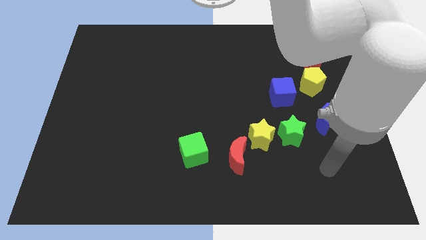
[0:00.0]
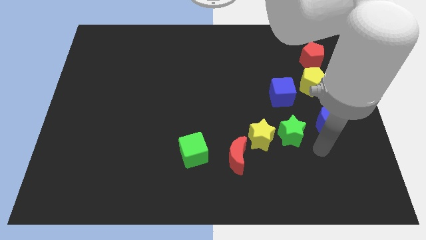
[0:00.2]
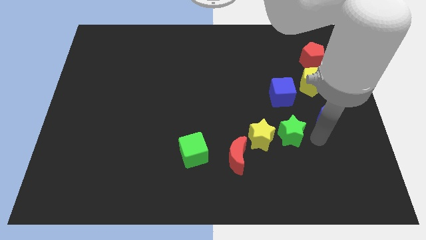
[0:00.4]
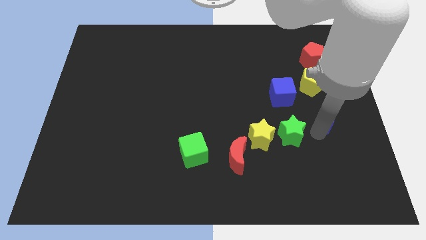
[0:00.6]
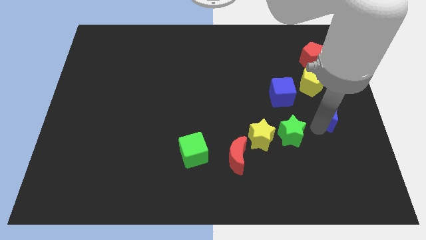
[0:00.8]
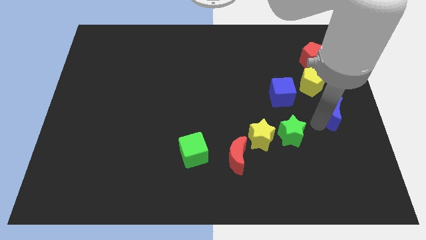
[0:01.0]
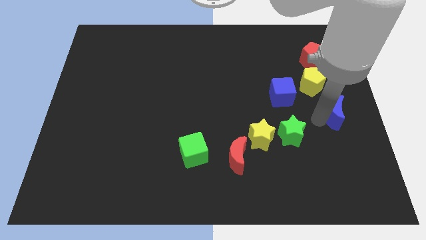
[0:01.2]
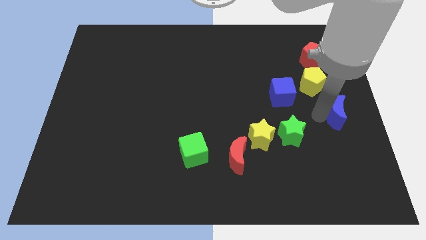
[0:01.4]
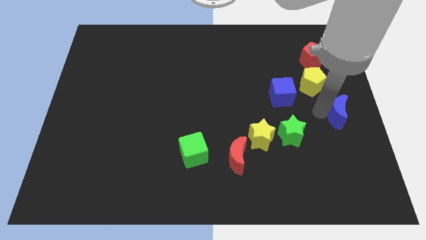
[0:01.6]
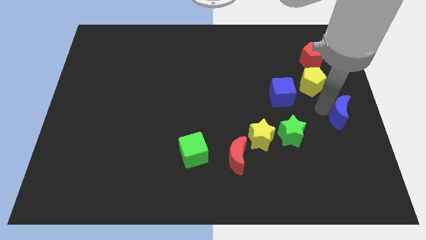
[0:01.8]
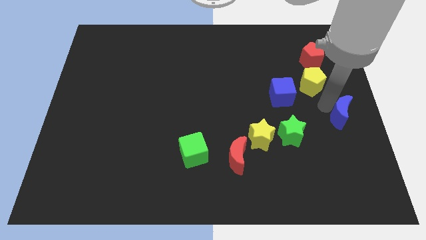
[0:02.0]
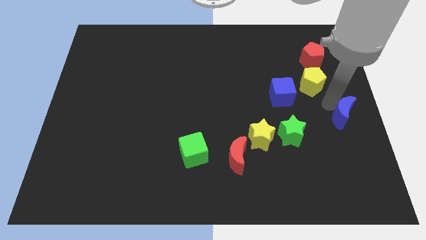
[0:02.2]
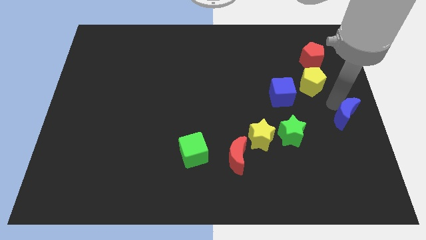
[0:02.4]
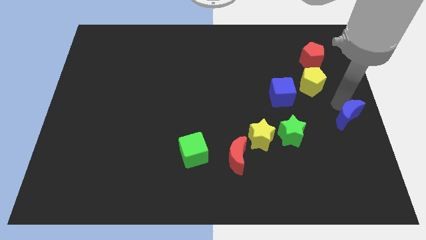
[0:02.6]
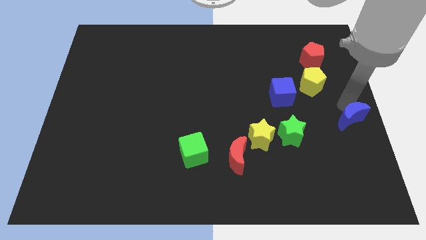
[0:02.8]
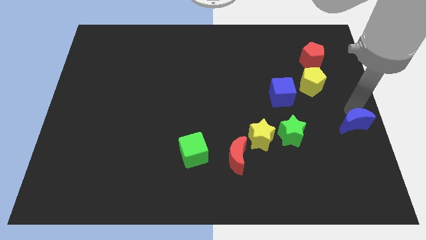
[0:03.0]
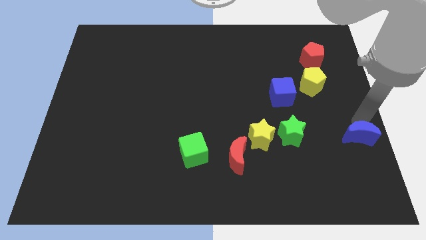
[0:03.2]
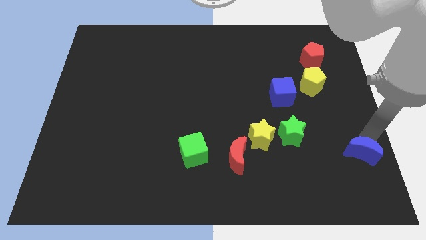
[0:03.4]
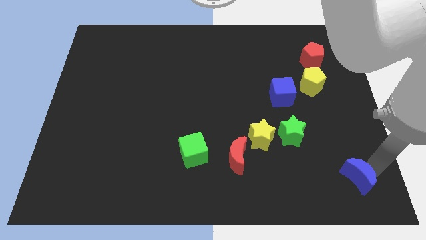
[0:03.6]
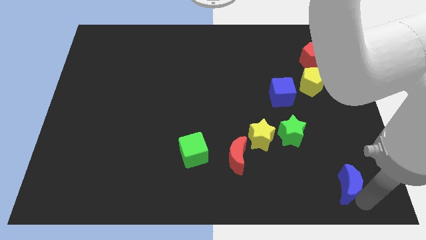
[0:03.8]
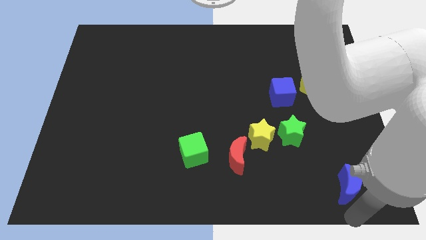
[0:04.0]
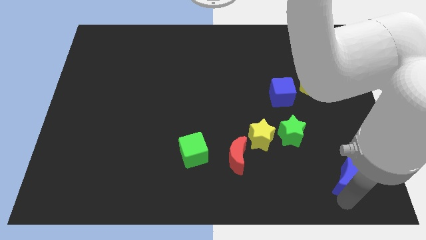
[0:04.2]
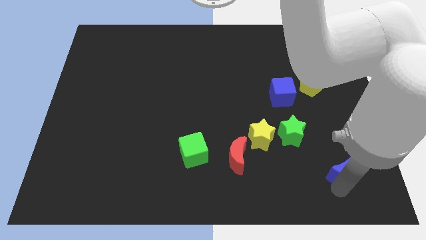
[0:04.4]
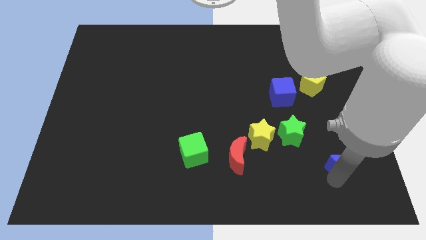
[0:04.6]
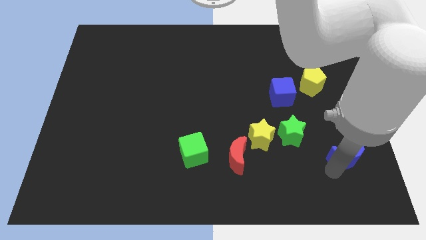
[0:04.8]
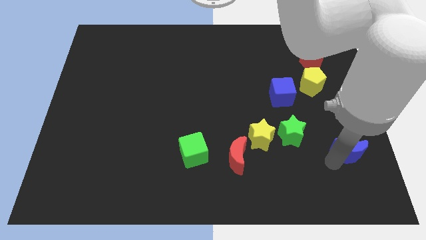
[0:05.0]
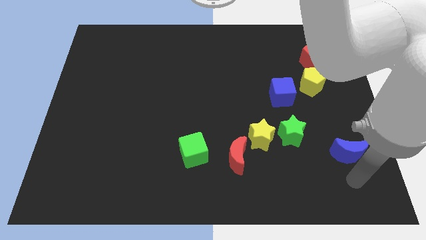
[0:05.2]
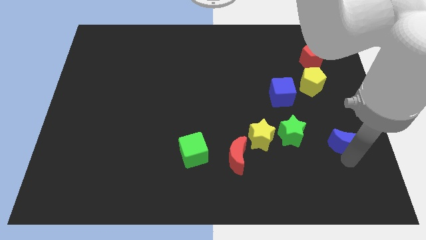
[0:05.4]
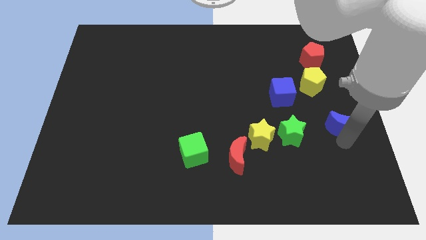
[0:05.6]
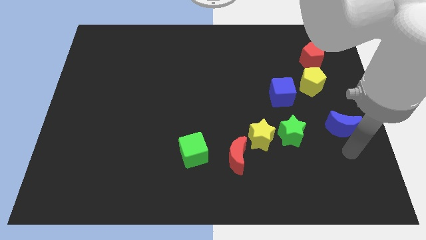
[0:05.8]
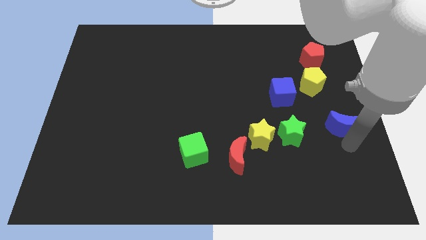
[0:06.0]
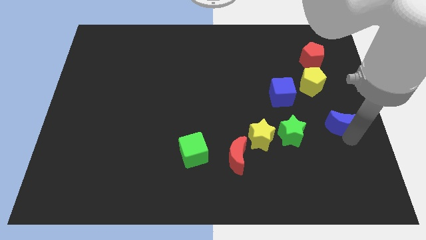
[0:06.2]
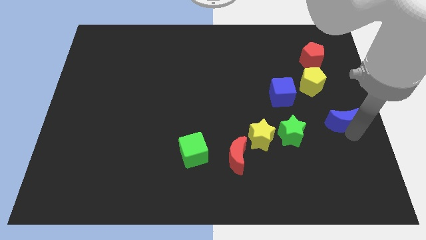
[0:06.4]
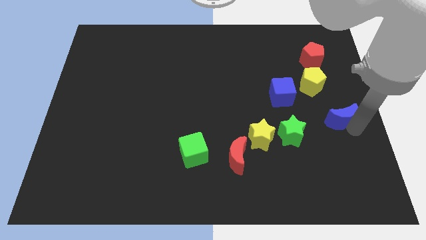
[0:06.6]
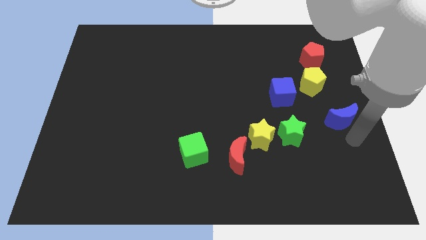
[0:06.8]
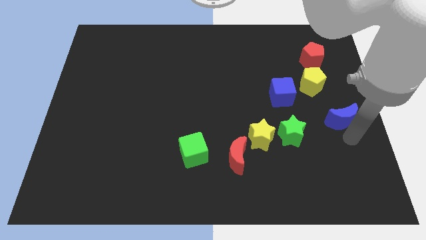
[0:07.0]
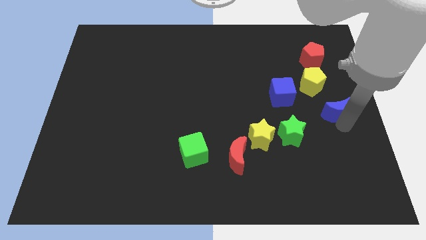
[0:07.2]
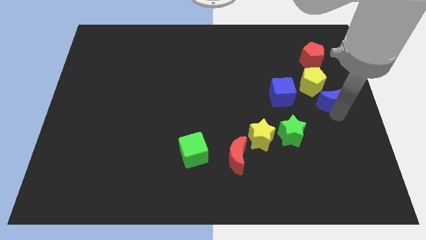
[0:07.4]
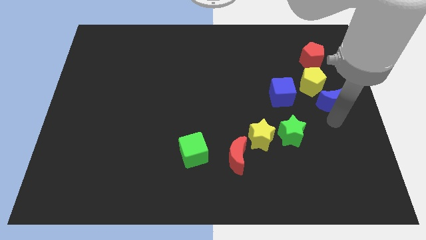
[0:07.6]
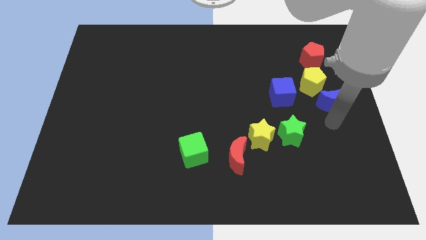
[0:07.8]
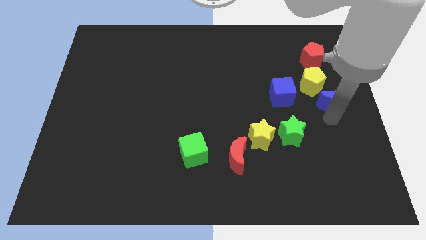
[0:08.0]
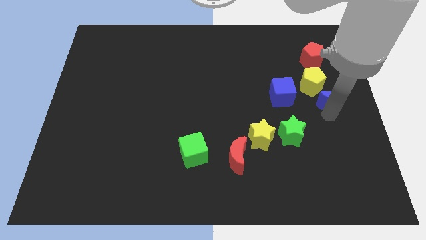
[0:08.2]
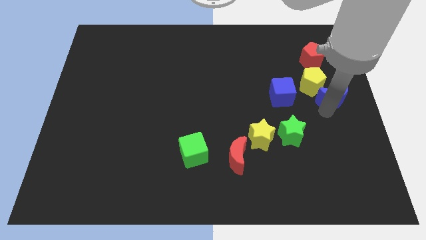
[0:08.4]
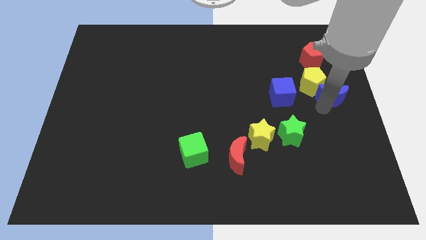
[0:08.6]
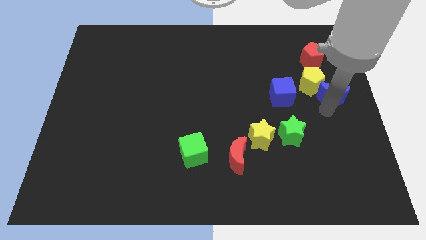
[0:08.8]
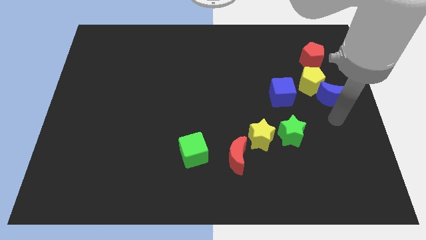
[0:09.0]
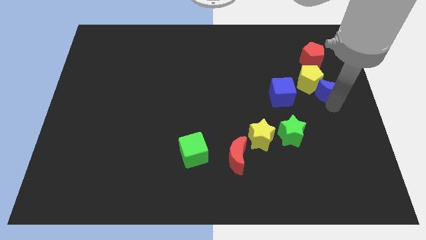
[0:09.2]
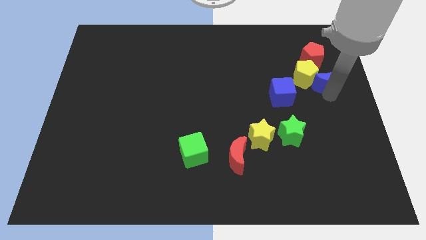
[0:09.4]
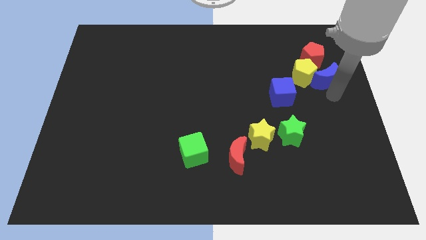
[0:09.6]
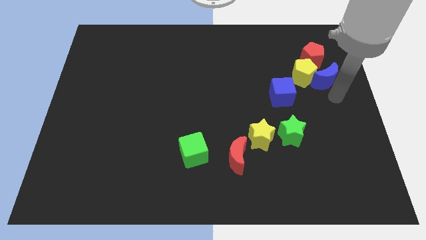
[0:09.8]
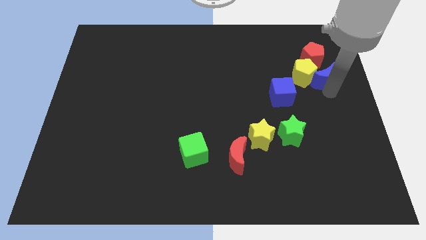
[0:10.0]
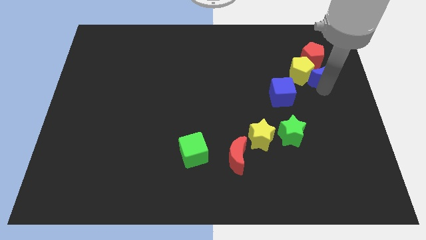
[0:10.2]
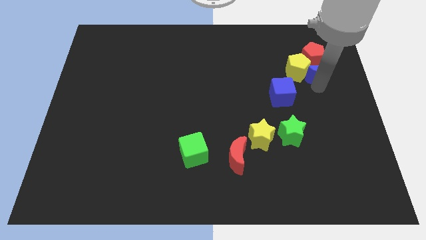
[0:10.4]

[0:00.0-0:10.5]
put the blue moon to the red pentagon

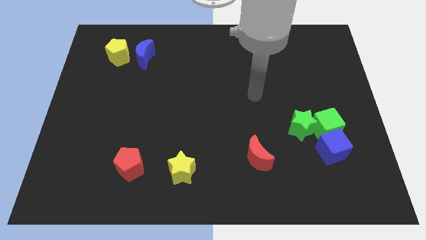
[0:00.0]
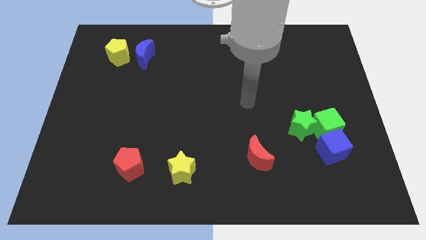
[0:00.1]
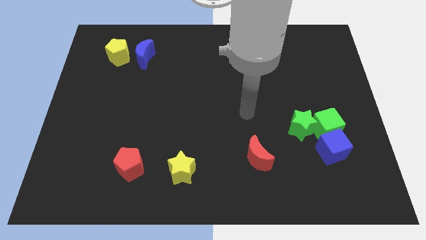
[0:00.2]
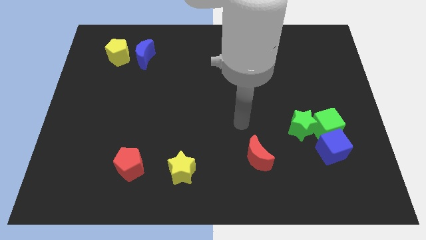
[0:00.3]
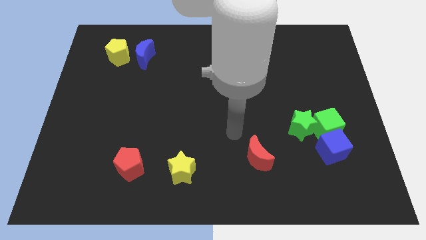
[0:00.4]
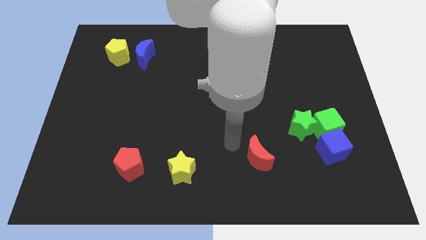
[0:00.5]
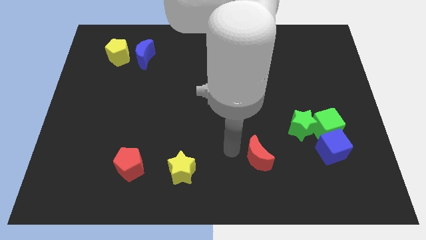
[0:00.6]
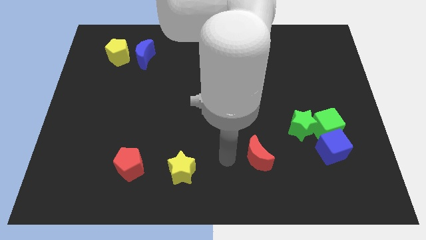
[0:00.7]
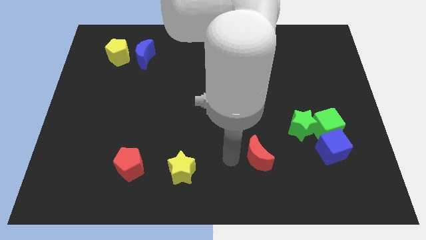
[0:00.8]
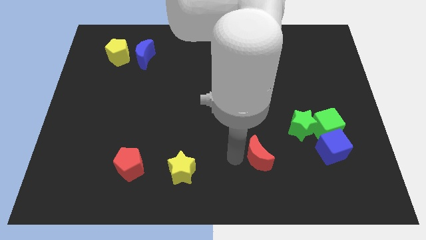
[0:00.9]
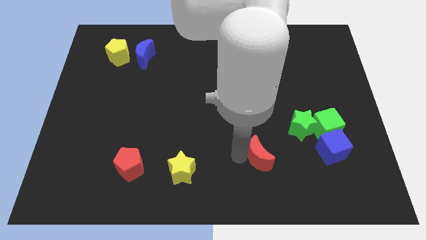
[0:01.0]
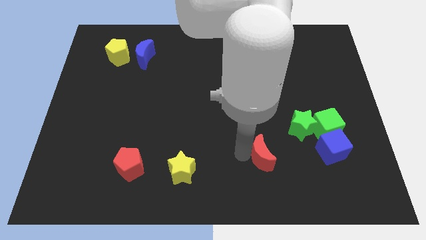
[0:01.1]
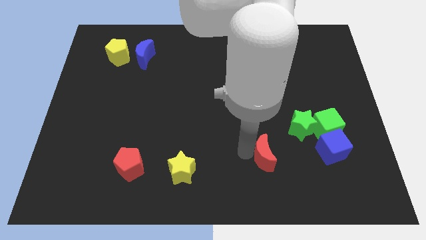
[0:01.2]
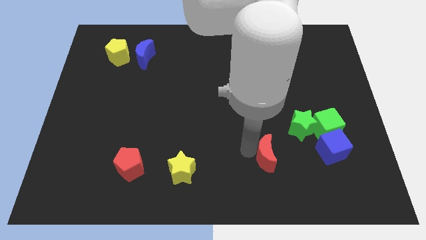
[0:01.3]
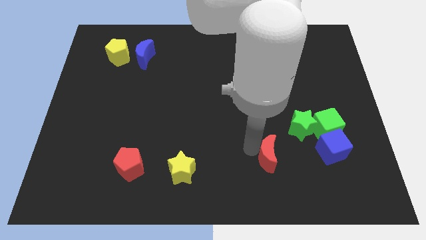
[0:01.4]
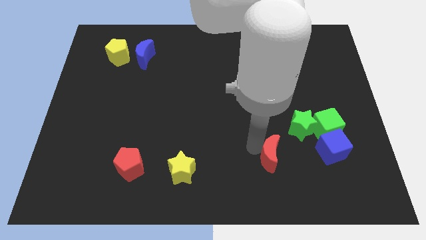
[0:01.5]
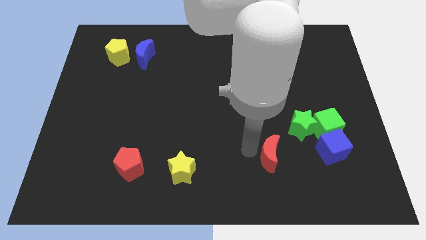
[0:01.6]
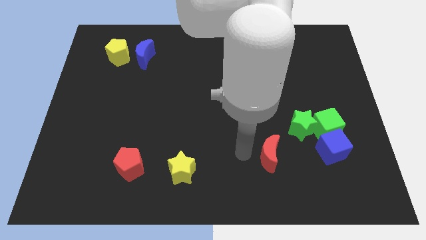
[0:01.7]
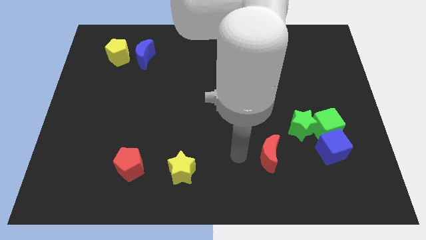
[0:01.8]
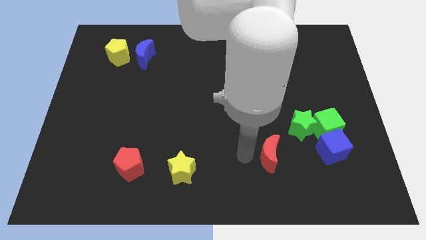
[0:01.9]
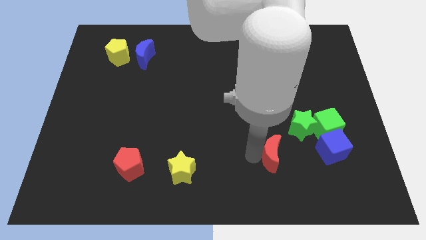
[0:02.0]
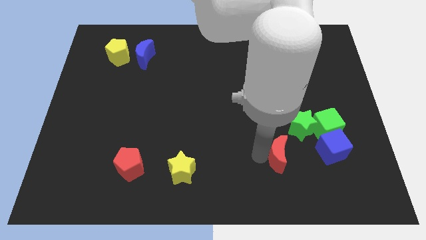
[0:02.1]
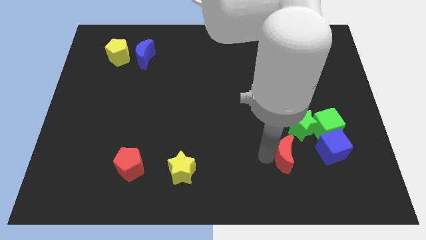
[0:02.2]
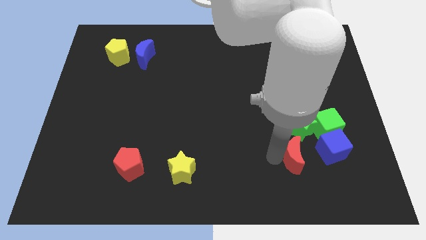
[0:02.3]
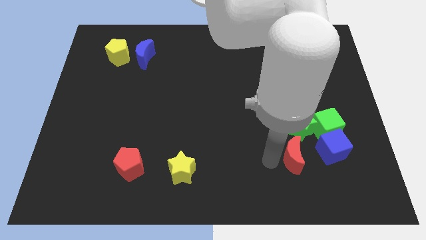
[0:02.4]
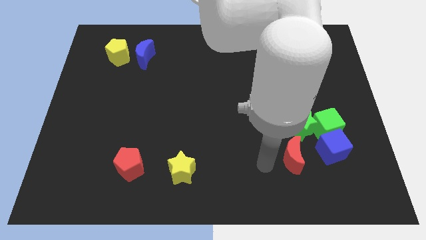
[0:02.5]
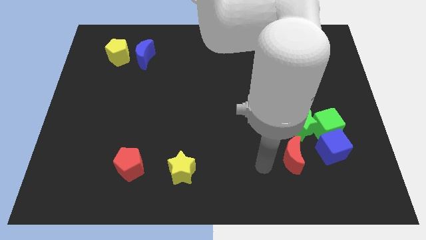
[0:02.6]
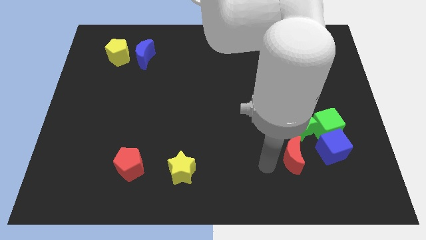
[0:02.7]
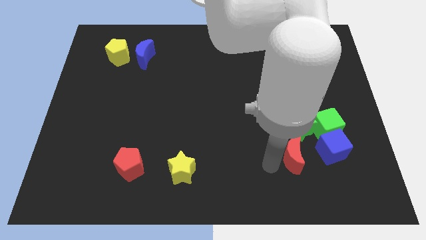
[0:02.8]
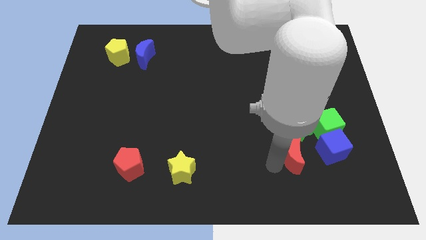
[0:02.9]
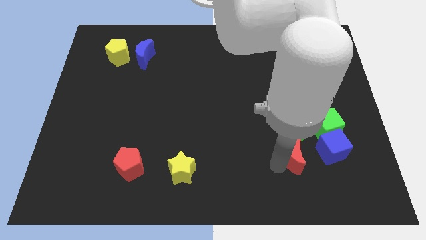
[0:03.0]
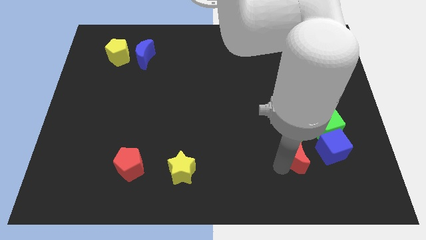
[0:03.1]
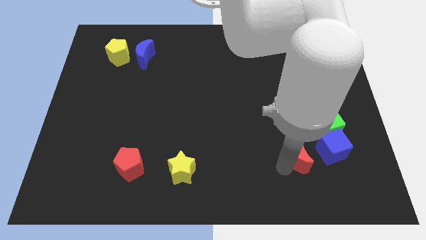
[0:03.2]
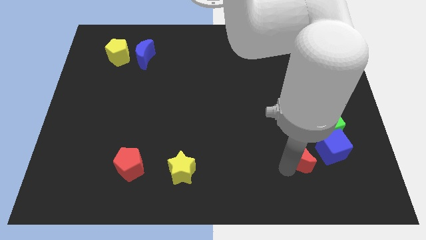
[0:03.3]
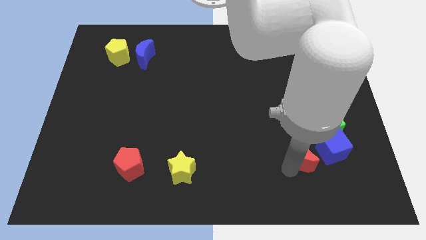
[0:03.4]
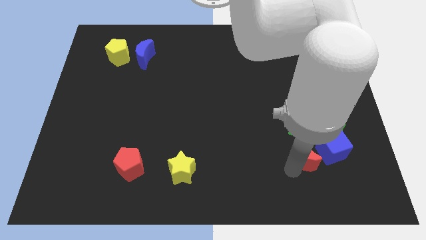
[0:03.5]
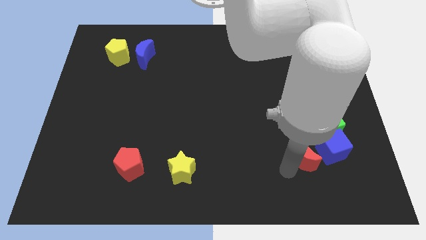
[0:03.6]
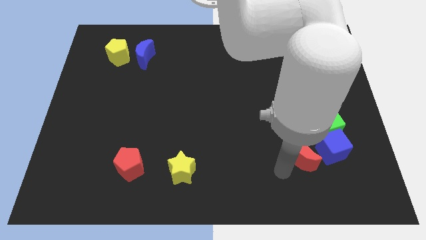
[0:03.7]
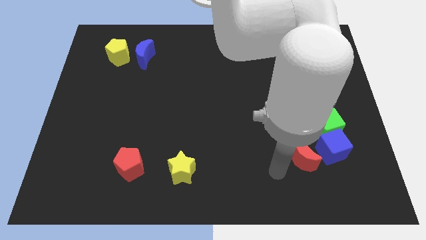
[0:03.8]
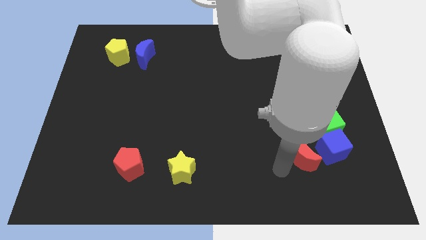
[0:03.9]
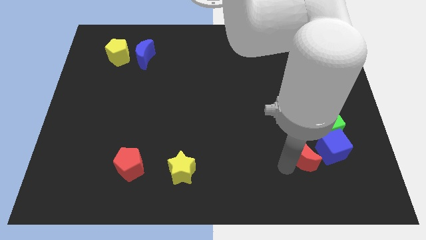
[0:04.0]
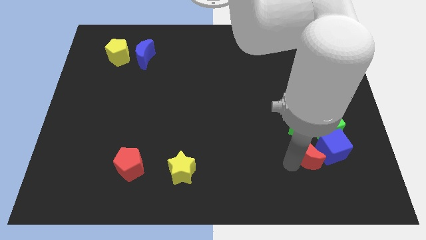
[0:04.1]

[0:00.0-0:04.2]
move the red moon towards the blue cube
